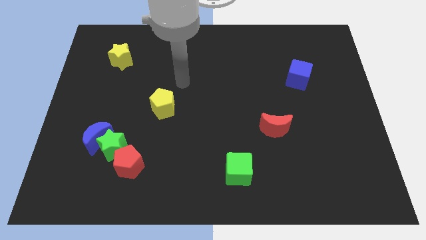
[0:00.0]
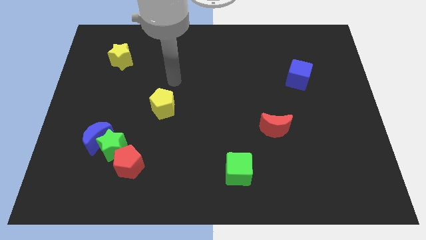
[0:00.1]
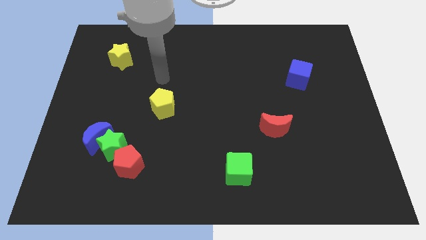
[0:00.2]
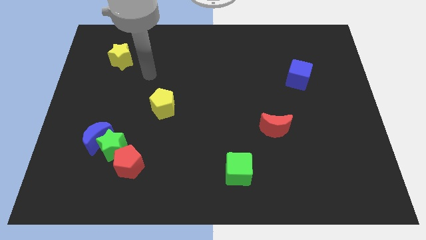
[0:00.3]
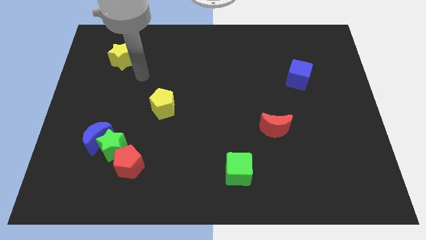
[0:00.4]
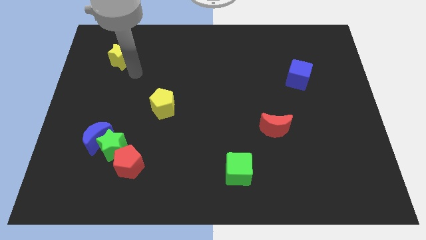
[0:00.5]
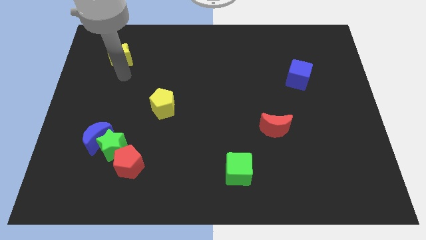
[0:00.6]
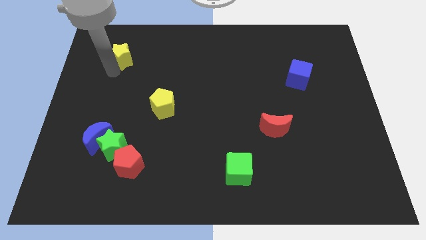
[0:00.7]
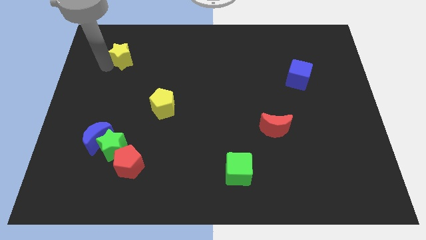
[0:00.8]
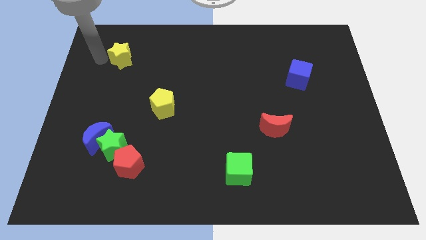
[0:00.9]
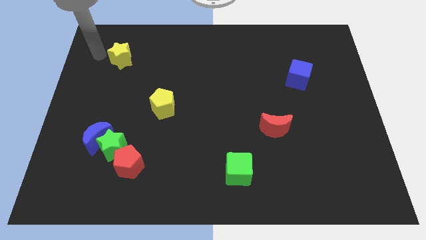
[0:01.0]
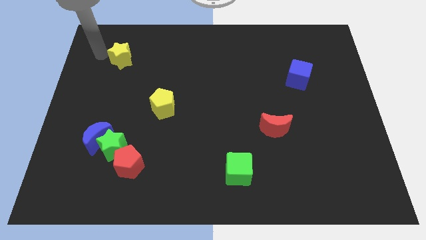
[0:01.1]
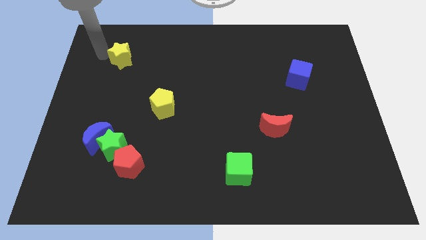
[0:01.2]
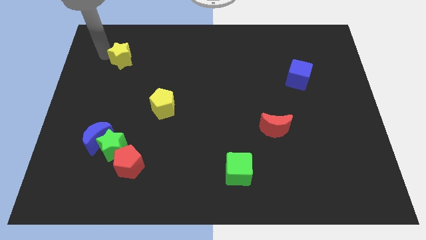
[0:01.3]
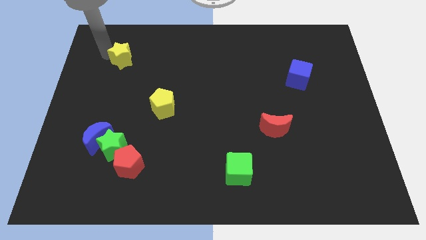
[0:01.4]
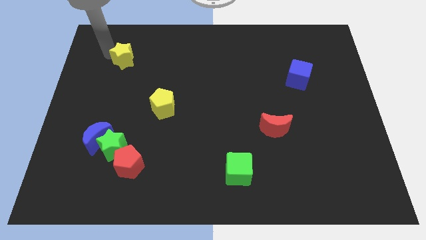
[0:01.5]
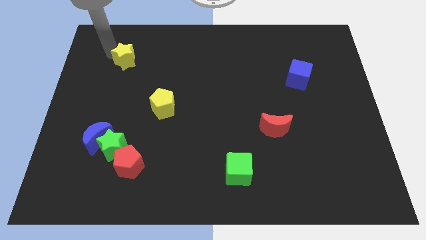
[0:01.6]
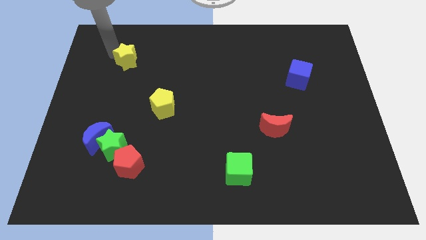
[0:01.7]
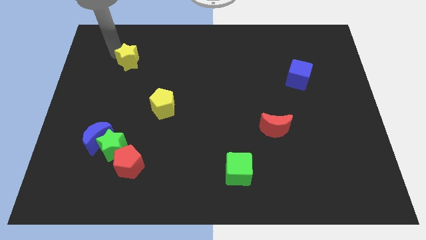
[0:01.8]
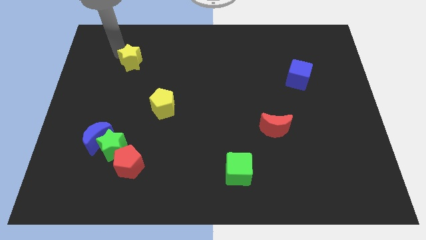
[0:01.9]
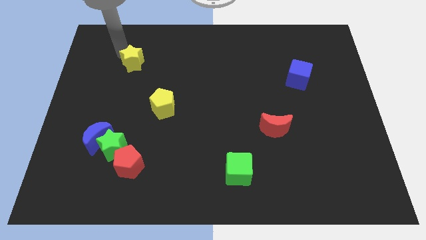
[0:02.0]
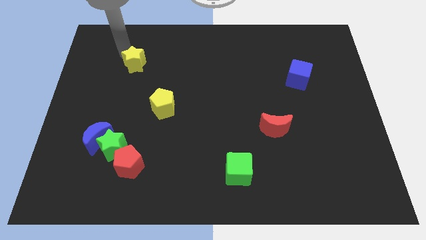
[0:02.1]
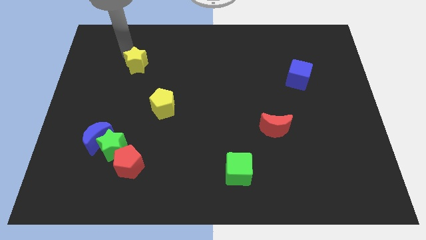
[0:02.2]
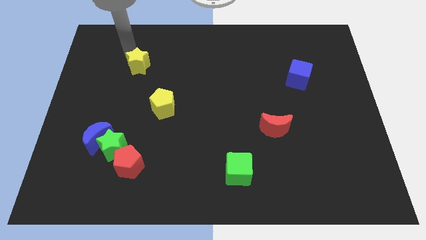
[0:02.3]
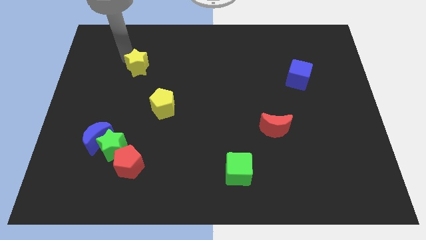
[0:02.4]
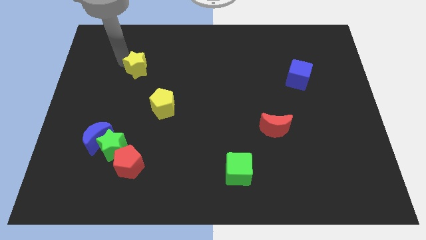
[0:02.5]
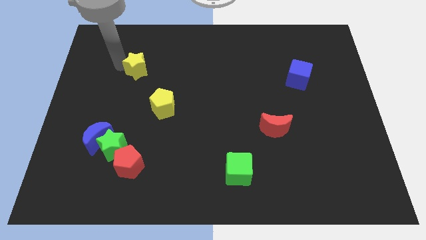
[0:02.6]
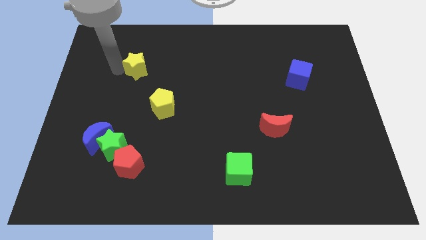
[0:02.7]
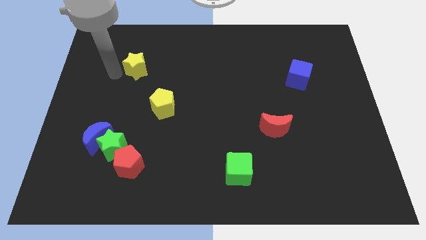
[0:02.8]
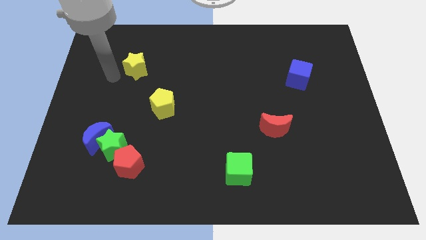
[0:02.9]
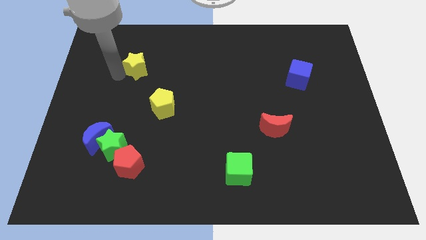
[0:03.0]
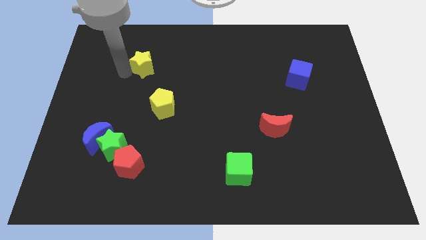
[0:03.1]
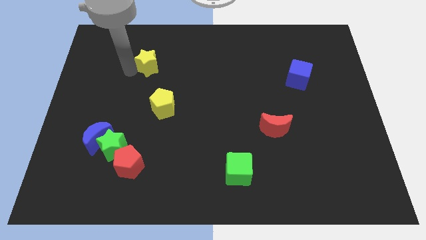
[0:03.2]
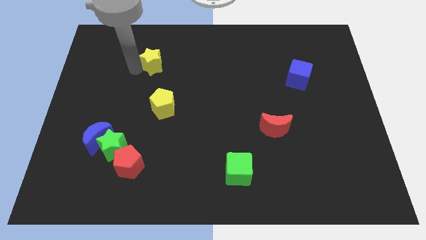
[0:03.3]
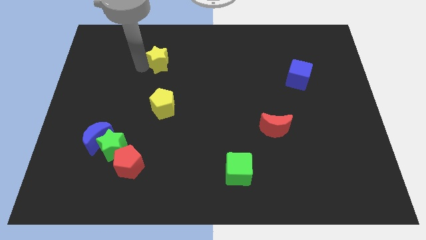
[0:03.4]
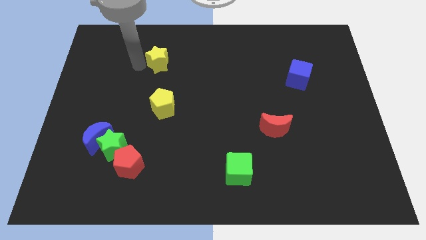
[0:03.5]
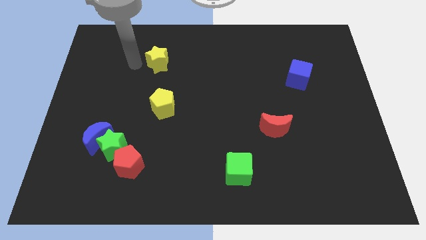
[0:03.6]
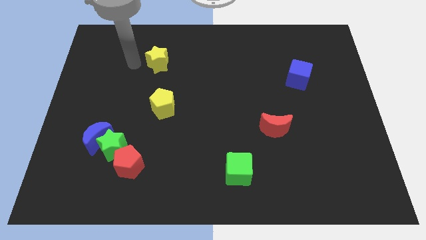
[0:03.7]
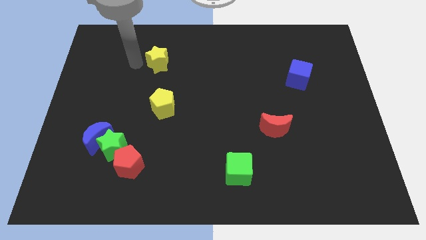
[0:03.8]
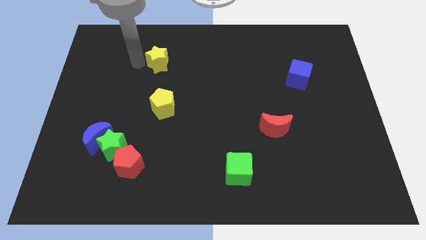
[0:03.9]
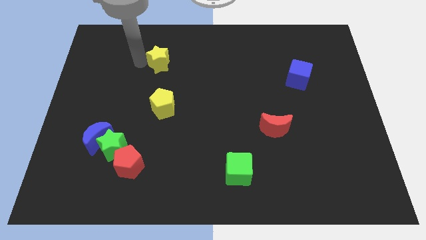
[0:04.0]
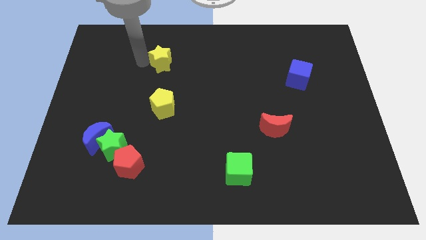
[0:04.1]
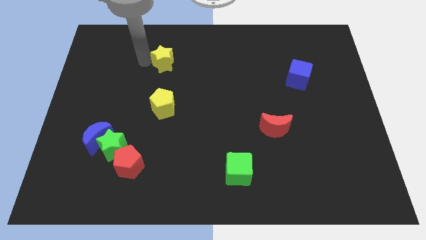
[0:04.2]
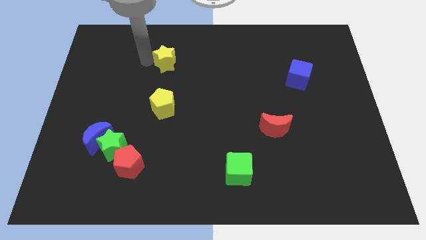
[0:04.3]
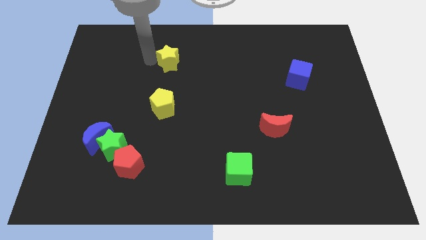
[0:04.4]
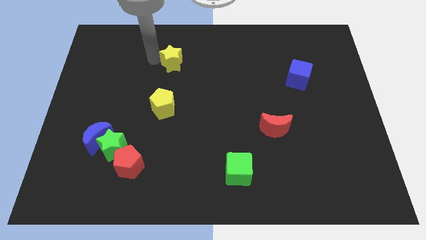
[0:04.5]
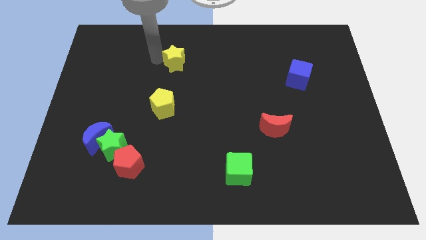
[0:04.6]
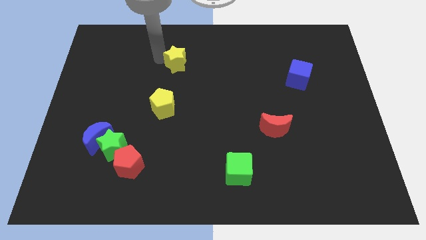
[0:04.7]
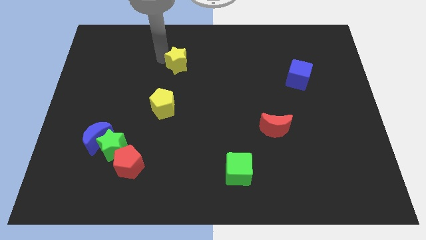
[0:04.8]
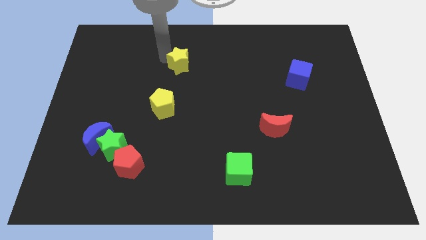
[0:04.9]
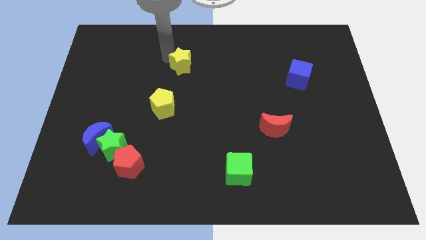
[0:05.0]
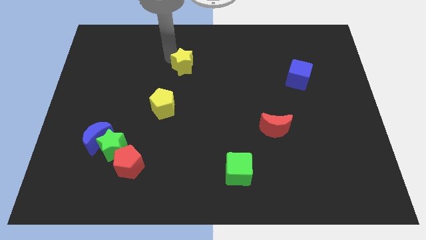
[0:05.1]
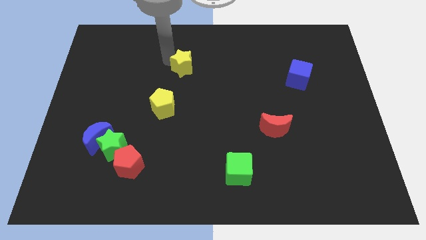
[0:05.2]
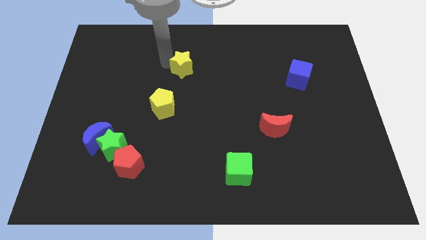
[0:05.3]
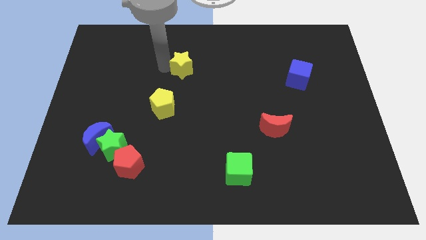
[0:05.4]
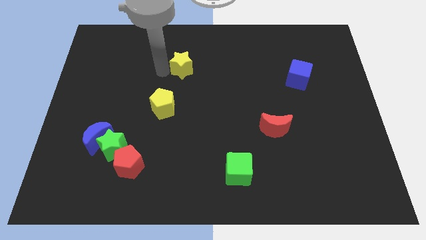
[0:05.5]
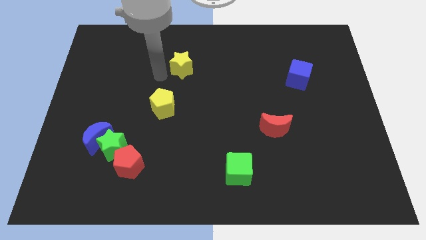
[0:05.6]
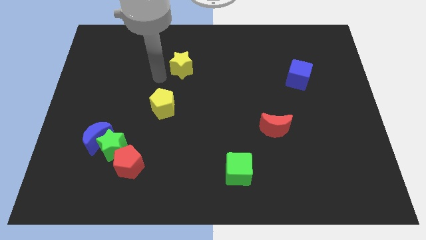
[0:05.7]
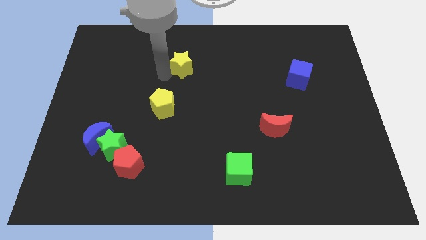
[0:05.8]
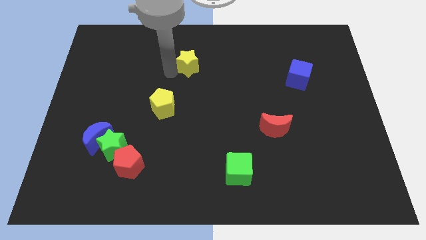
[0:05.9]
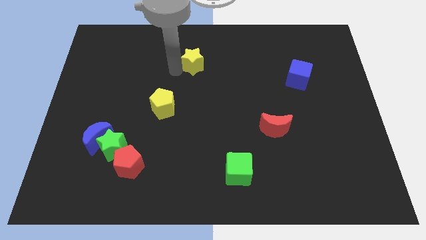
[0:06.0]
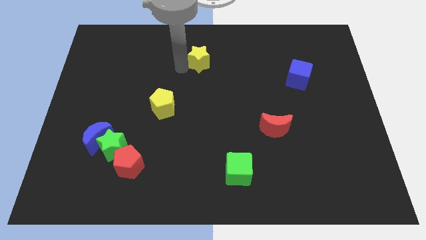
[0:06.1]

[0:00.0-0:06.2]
slide the yellow star to the right

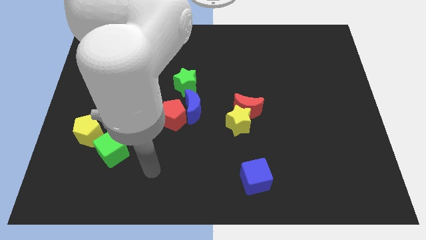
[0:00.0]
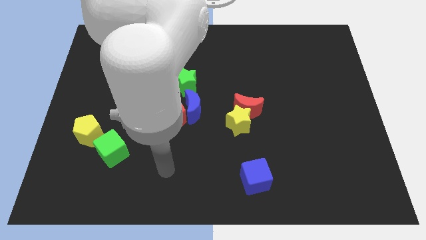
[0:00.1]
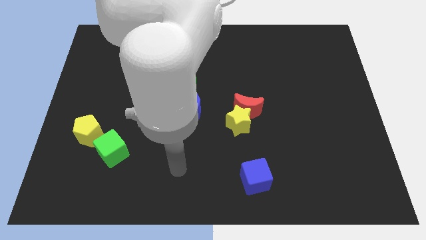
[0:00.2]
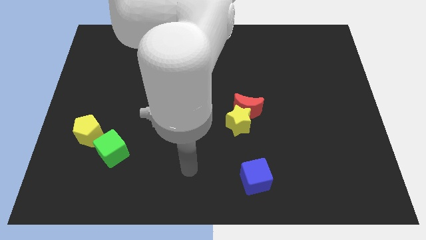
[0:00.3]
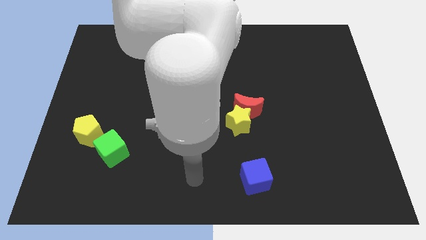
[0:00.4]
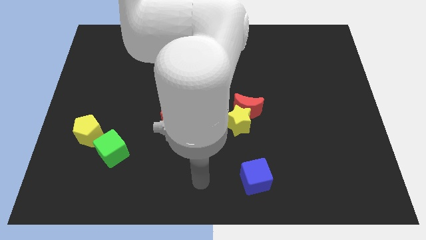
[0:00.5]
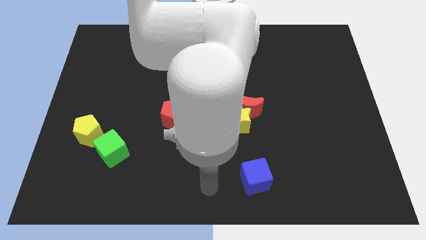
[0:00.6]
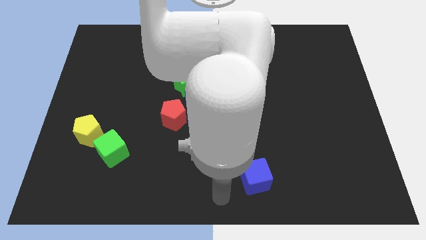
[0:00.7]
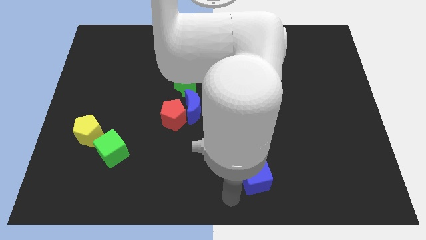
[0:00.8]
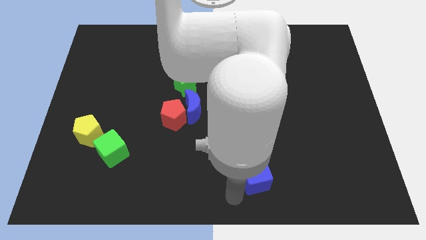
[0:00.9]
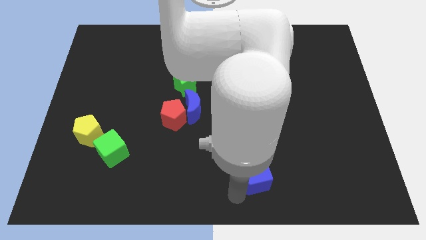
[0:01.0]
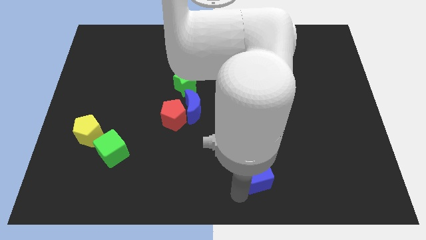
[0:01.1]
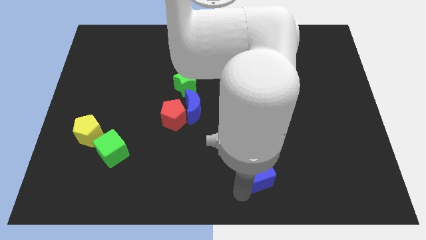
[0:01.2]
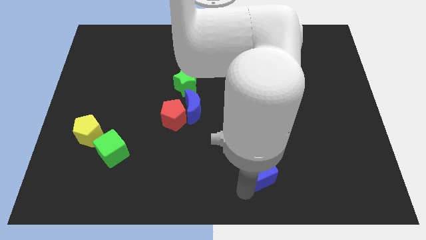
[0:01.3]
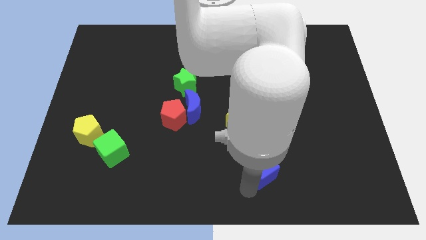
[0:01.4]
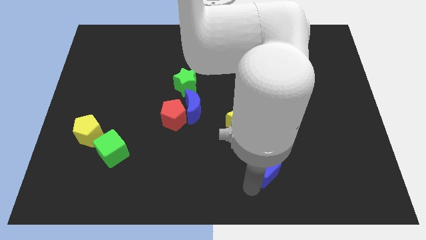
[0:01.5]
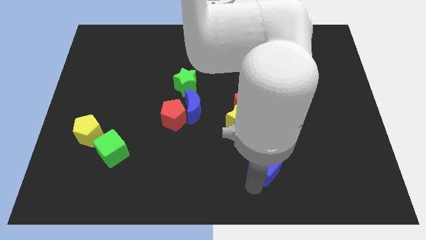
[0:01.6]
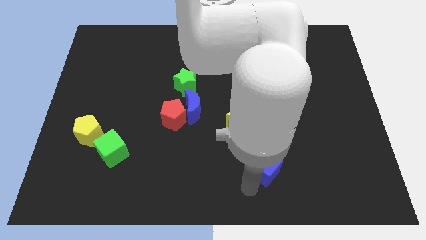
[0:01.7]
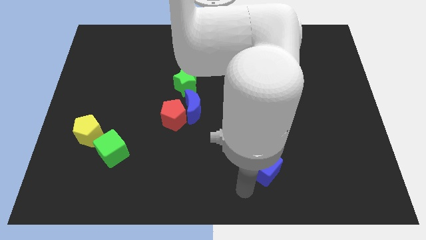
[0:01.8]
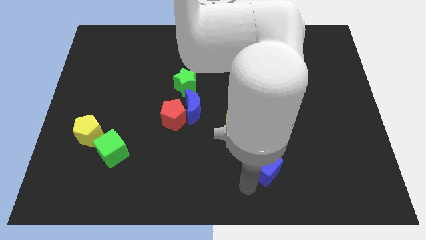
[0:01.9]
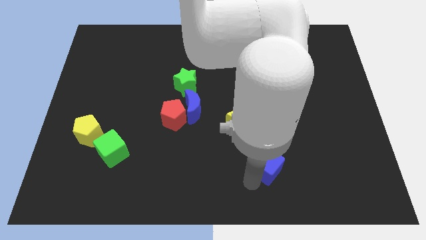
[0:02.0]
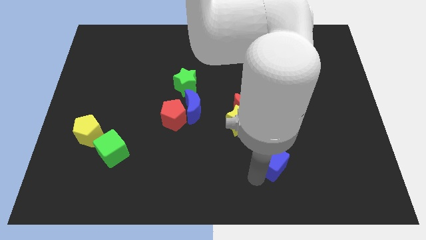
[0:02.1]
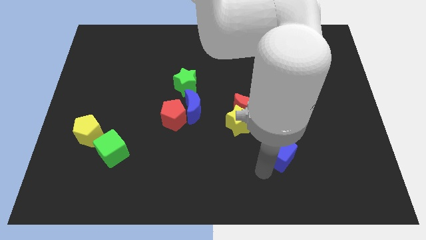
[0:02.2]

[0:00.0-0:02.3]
slightly move the blue cube up and right

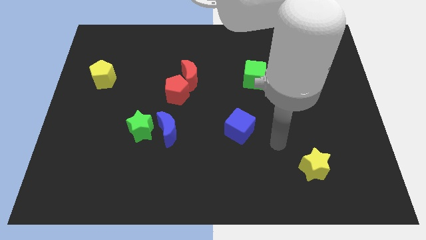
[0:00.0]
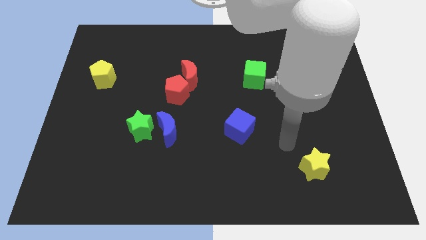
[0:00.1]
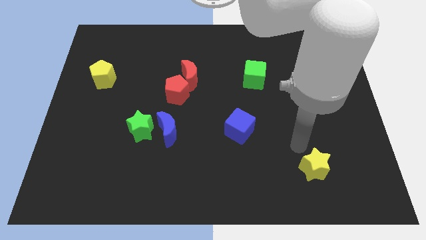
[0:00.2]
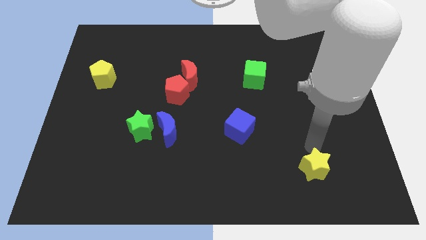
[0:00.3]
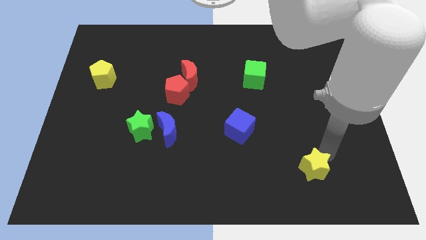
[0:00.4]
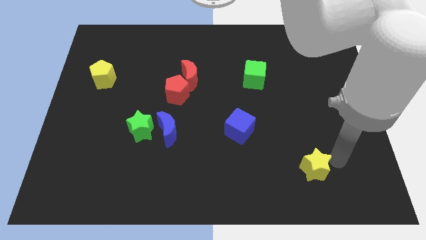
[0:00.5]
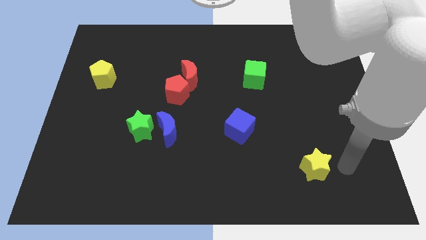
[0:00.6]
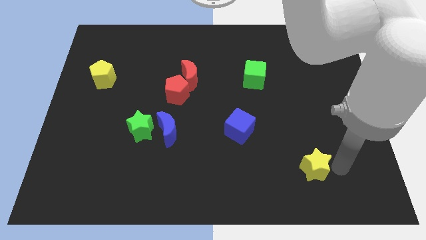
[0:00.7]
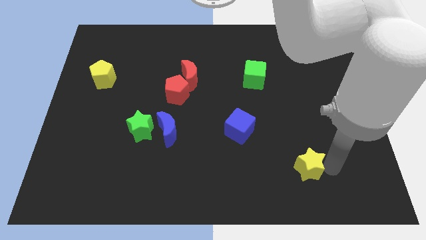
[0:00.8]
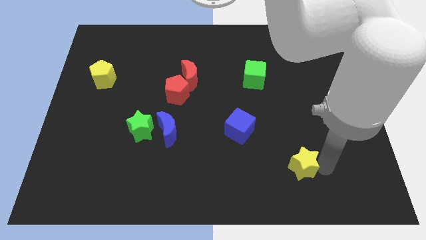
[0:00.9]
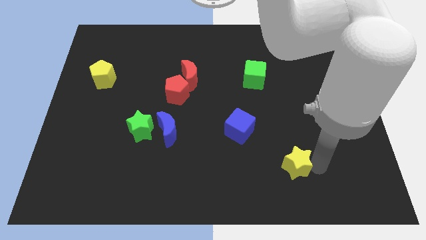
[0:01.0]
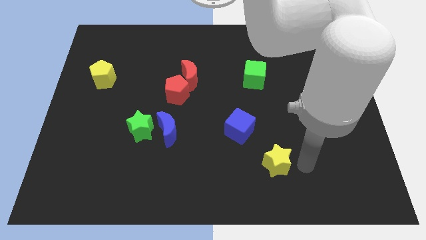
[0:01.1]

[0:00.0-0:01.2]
slightly slide the yellow star to the left
